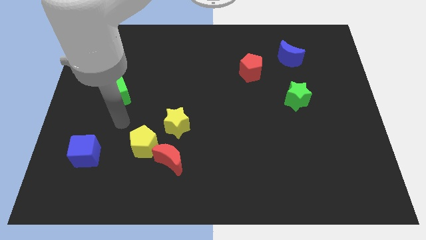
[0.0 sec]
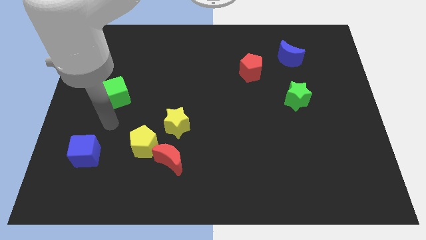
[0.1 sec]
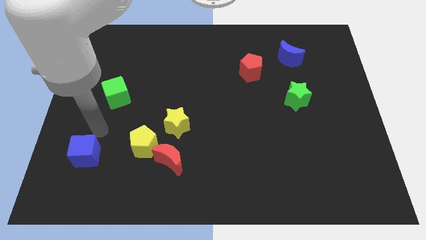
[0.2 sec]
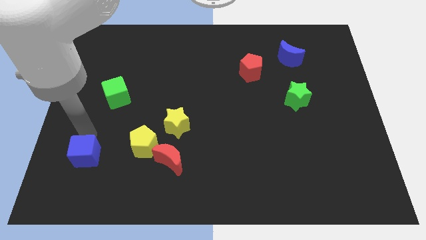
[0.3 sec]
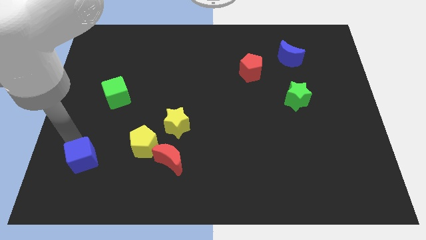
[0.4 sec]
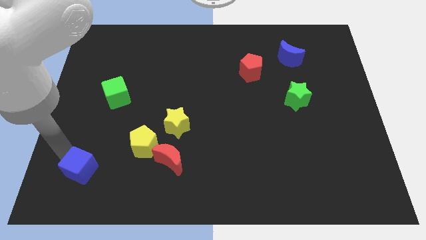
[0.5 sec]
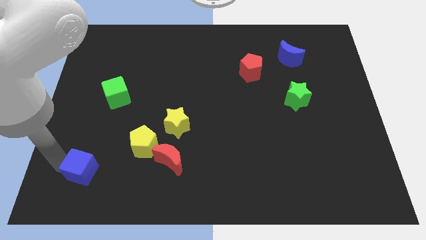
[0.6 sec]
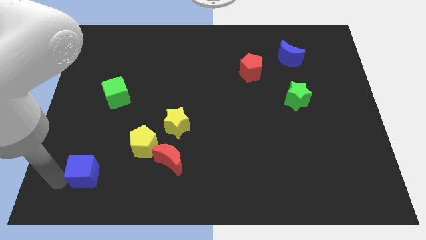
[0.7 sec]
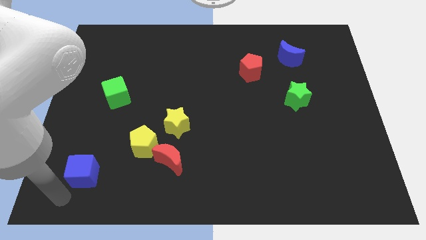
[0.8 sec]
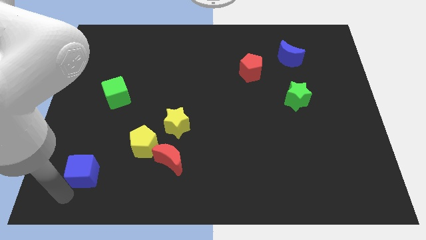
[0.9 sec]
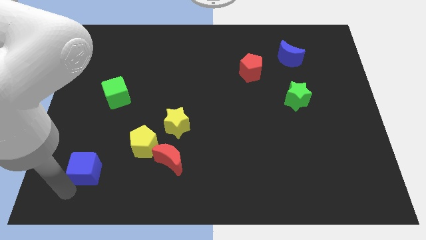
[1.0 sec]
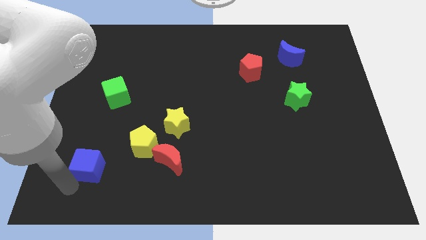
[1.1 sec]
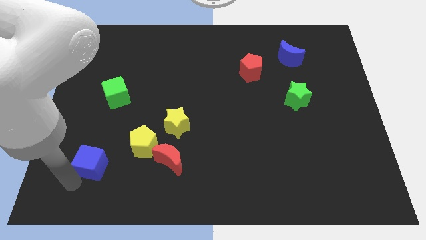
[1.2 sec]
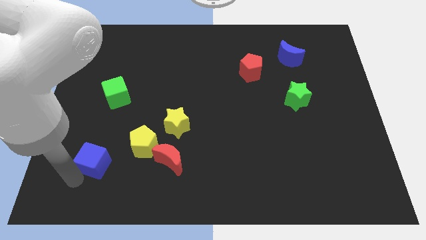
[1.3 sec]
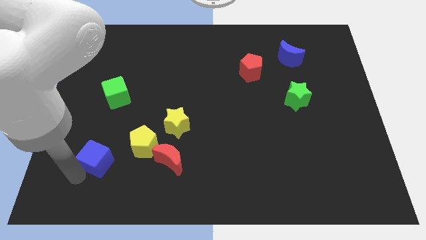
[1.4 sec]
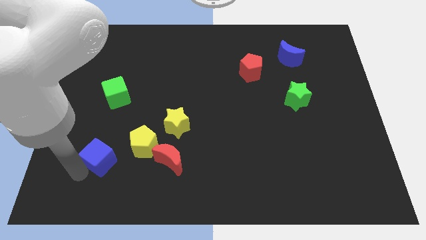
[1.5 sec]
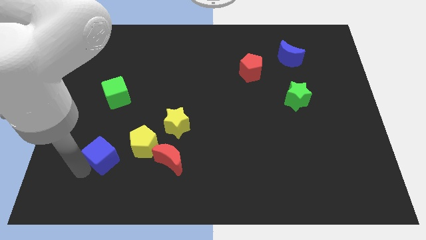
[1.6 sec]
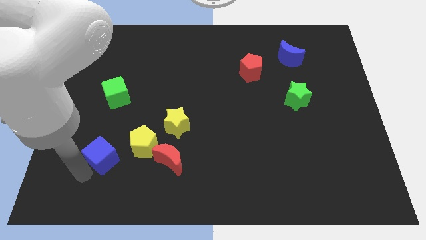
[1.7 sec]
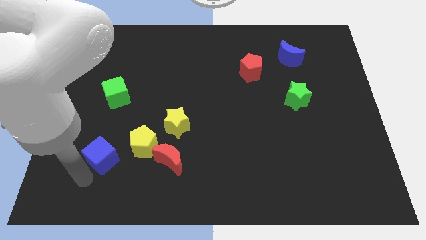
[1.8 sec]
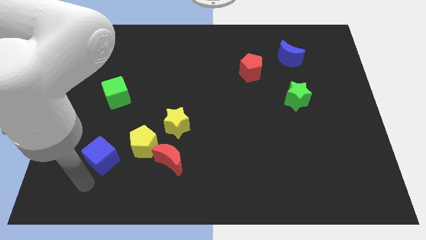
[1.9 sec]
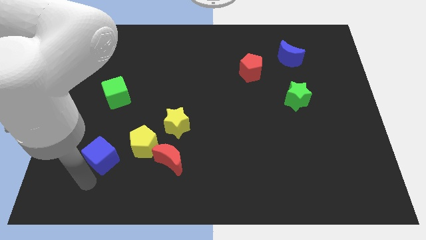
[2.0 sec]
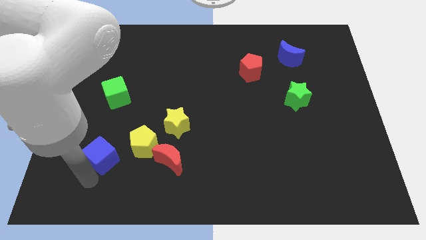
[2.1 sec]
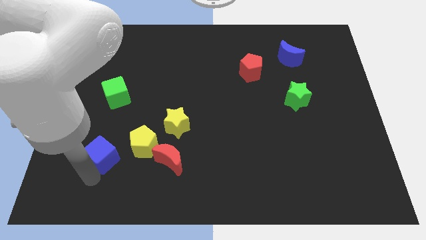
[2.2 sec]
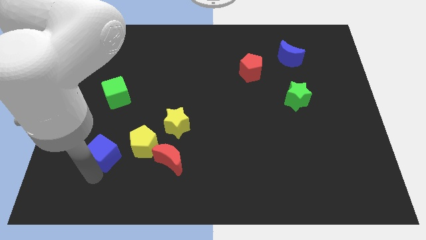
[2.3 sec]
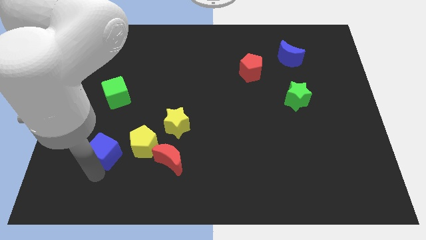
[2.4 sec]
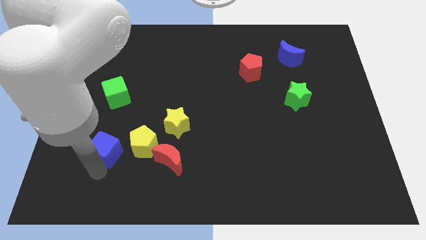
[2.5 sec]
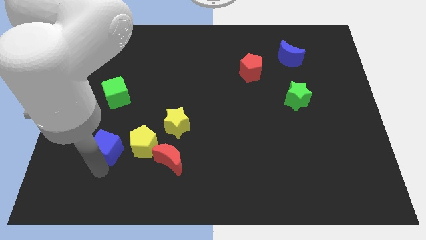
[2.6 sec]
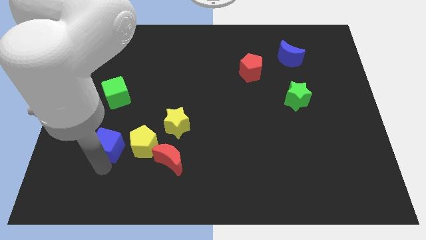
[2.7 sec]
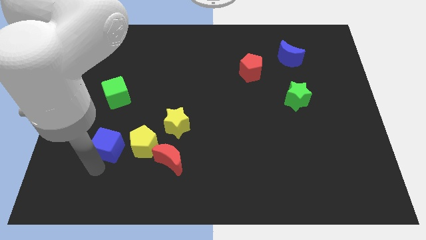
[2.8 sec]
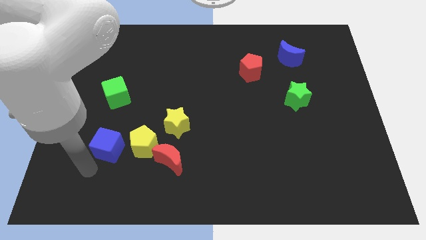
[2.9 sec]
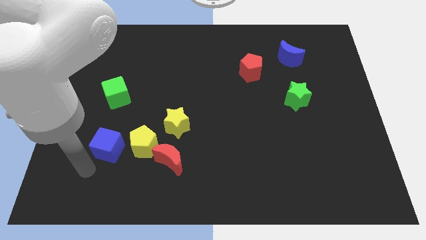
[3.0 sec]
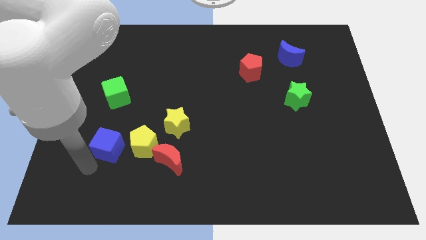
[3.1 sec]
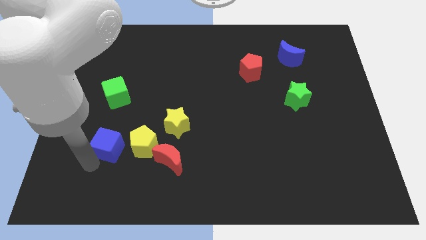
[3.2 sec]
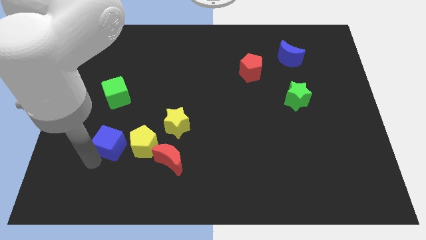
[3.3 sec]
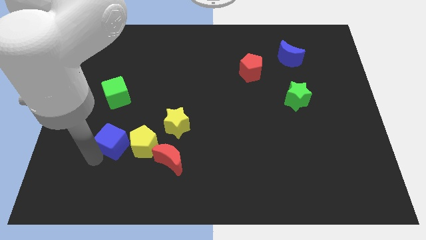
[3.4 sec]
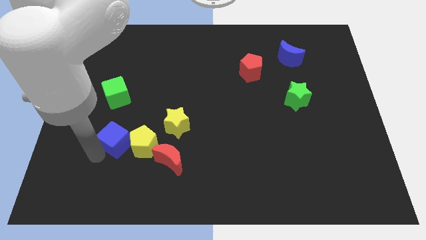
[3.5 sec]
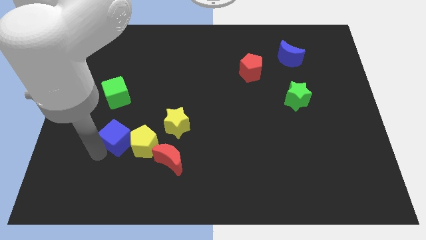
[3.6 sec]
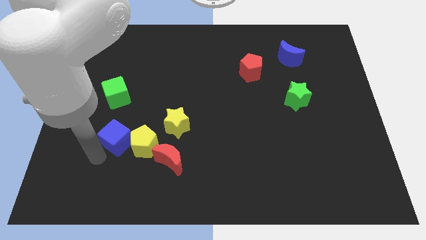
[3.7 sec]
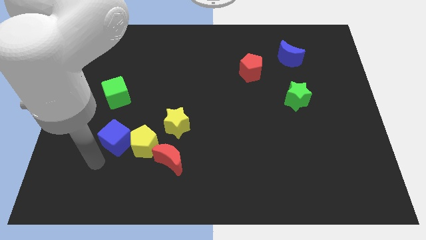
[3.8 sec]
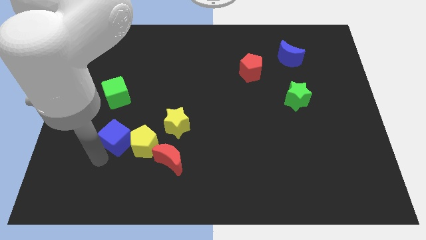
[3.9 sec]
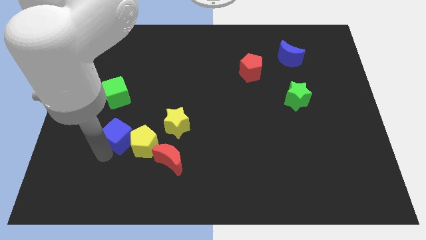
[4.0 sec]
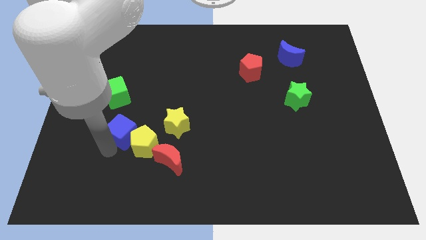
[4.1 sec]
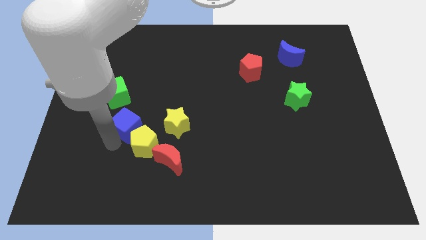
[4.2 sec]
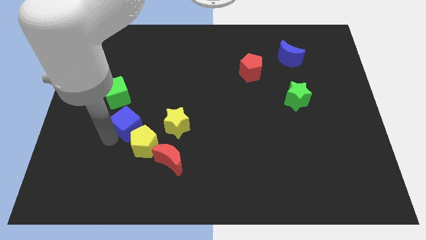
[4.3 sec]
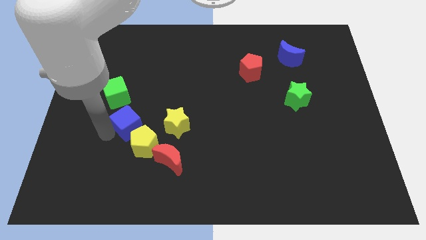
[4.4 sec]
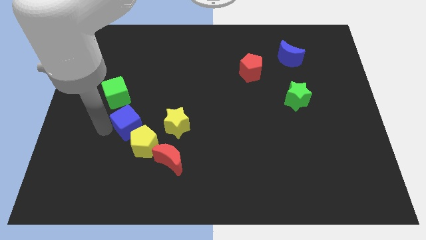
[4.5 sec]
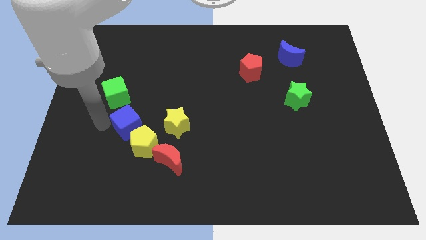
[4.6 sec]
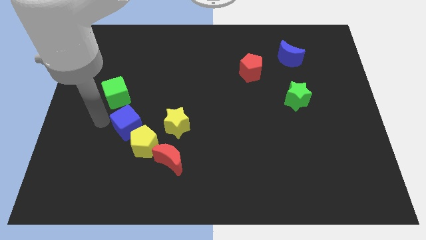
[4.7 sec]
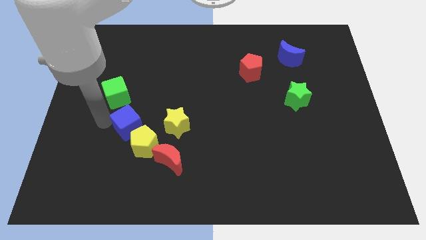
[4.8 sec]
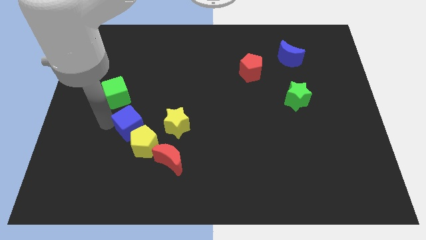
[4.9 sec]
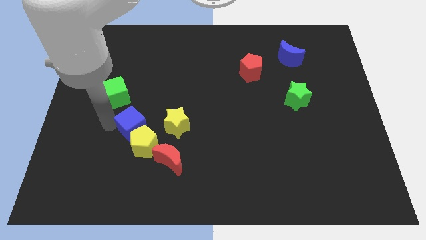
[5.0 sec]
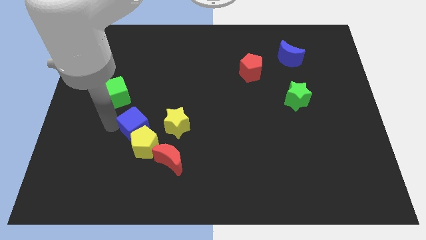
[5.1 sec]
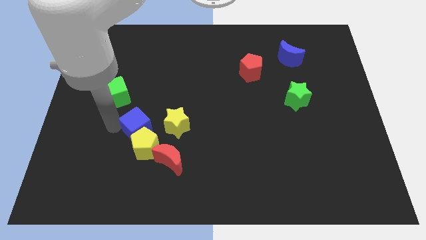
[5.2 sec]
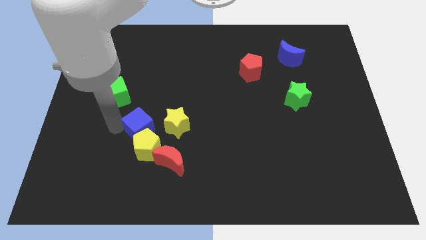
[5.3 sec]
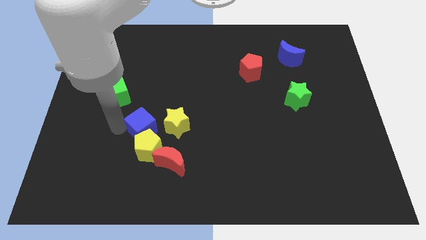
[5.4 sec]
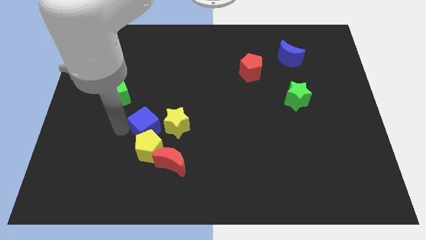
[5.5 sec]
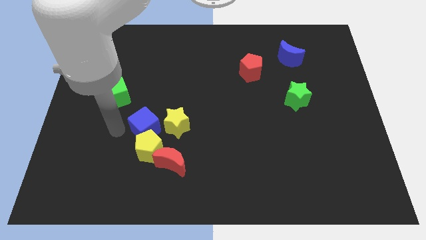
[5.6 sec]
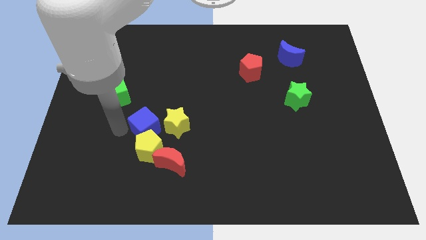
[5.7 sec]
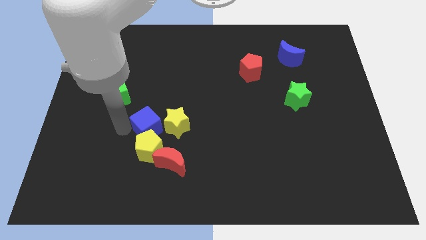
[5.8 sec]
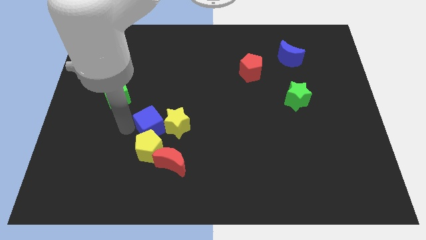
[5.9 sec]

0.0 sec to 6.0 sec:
slide the blue cube towards the yellow star

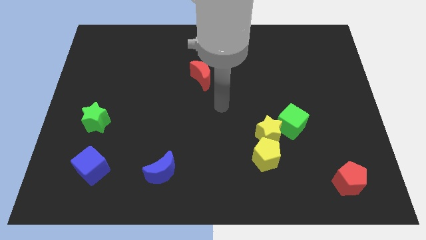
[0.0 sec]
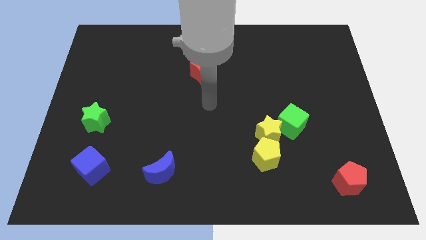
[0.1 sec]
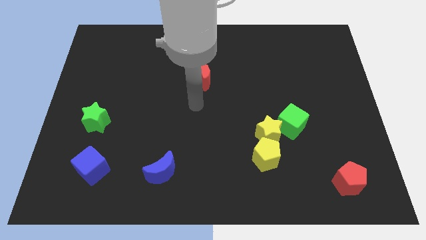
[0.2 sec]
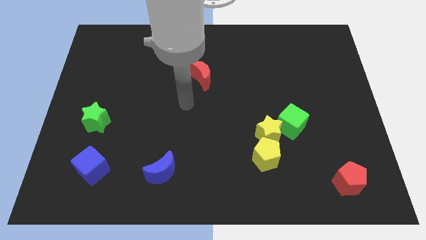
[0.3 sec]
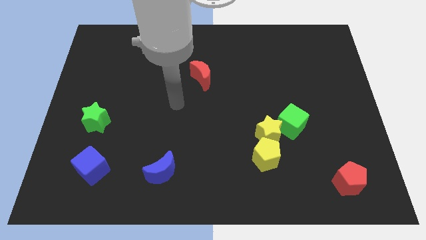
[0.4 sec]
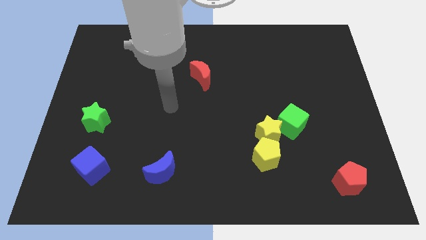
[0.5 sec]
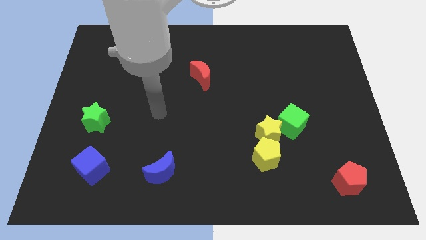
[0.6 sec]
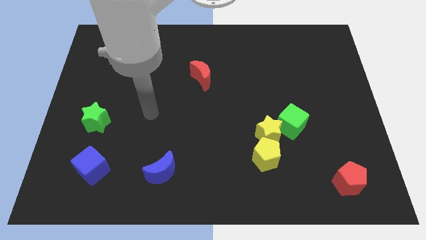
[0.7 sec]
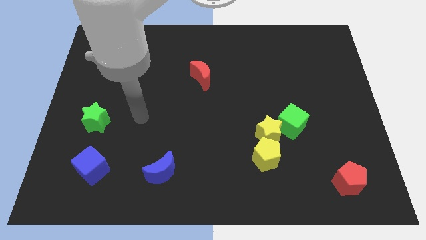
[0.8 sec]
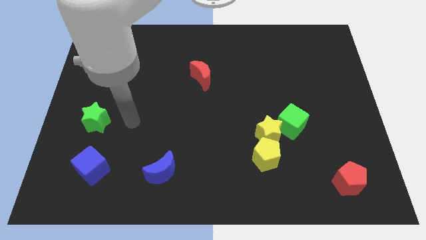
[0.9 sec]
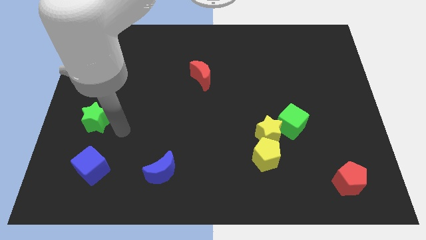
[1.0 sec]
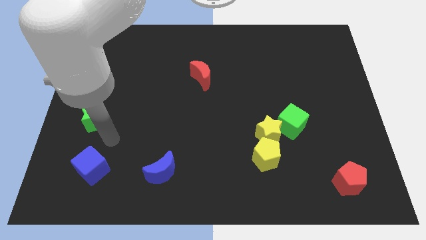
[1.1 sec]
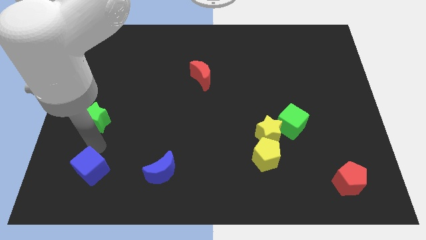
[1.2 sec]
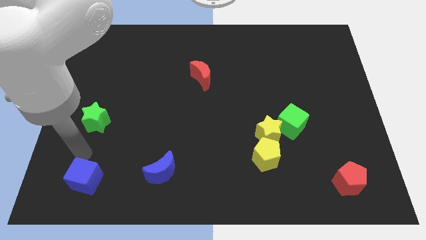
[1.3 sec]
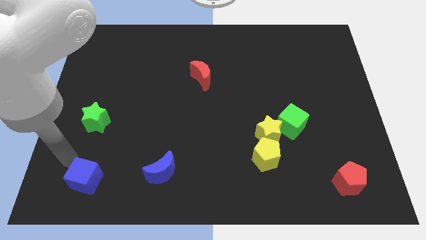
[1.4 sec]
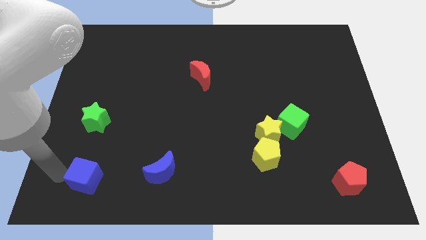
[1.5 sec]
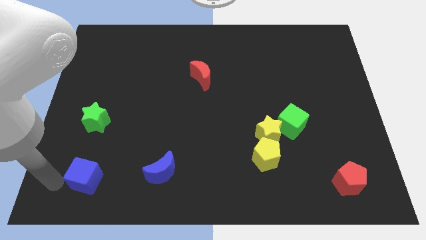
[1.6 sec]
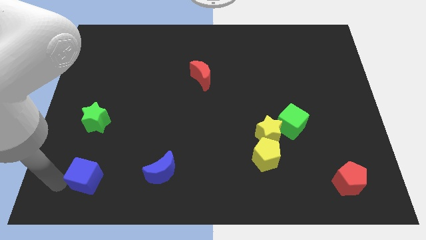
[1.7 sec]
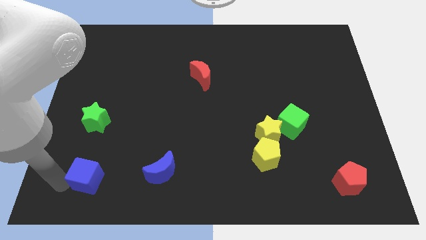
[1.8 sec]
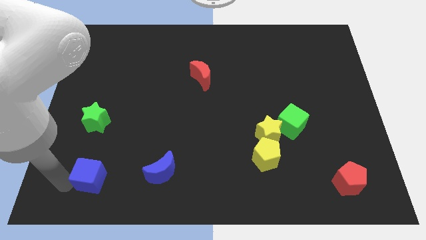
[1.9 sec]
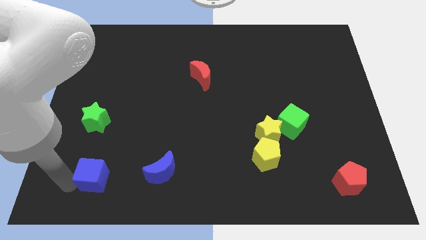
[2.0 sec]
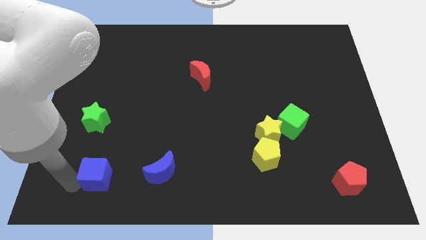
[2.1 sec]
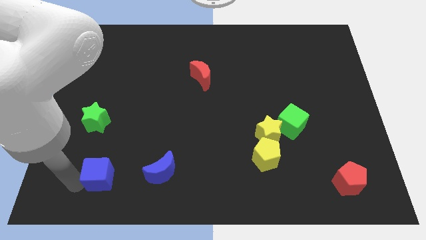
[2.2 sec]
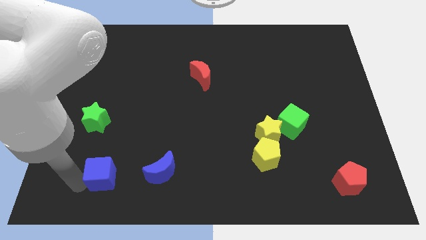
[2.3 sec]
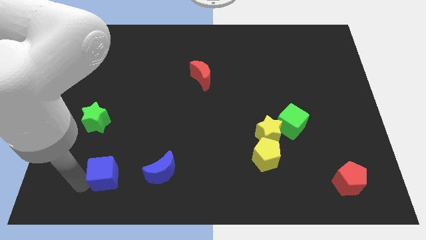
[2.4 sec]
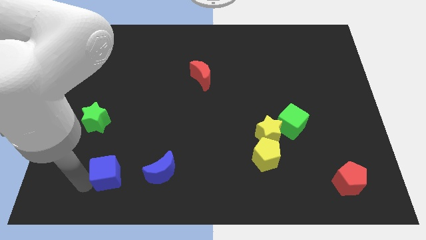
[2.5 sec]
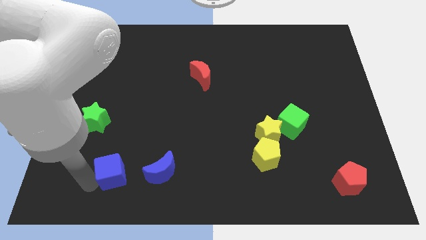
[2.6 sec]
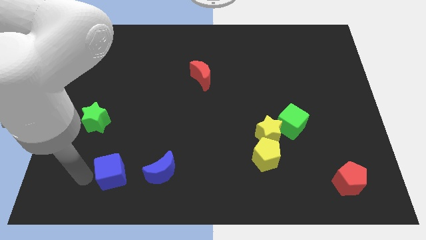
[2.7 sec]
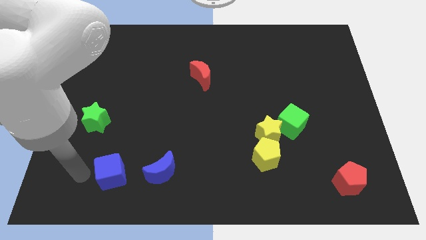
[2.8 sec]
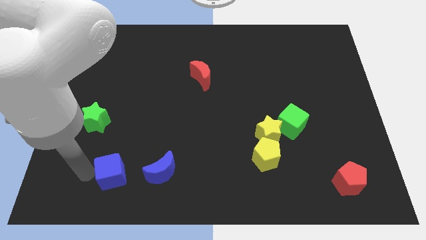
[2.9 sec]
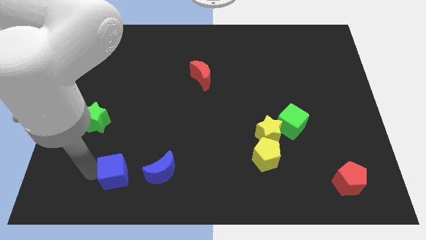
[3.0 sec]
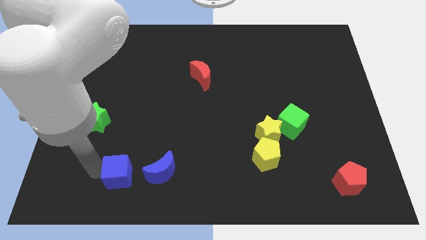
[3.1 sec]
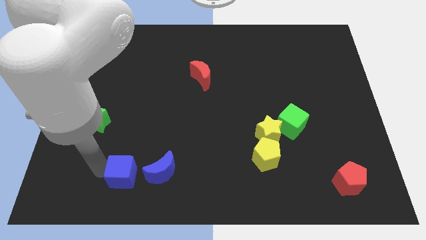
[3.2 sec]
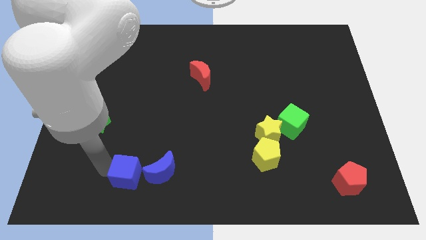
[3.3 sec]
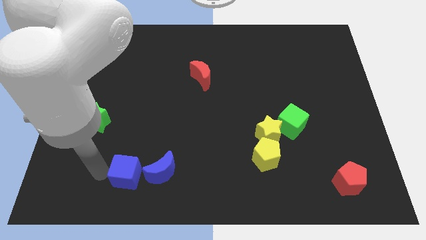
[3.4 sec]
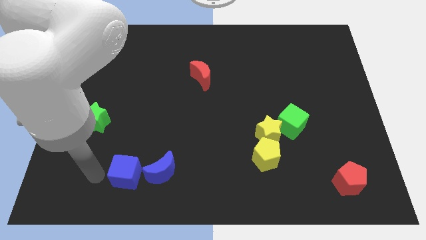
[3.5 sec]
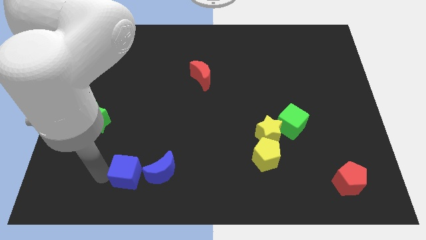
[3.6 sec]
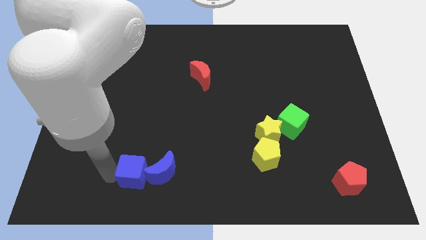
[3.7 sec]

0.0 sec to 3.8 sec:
push the blue cube next to the blue moon
